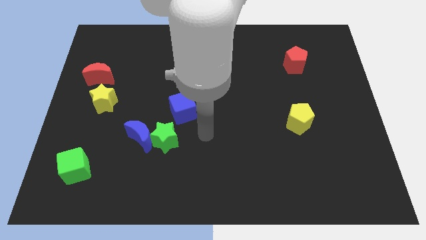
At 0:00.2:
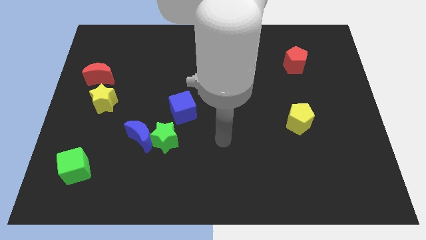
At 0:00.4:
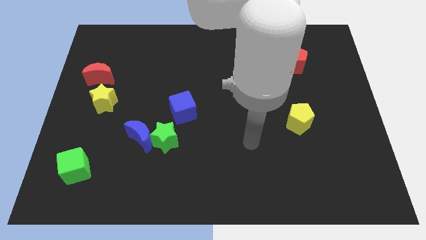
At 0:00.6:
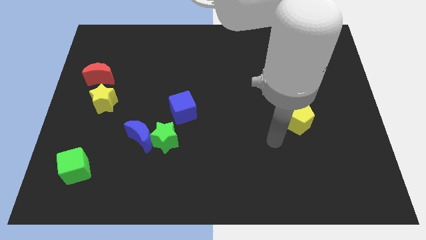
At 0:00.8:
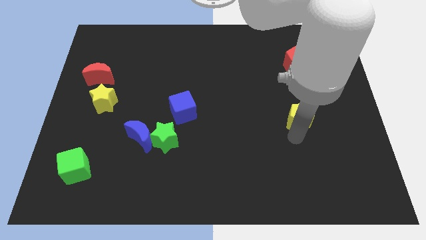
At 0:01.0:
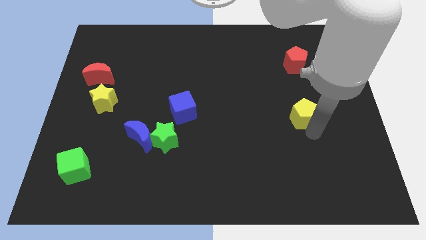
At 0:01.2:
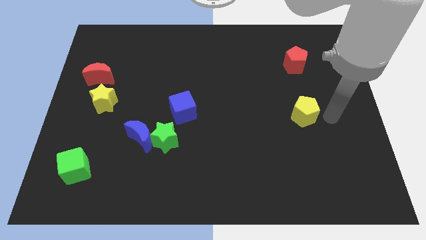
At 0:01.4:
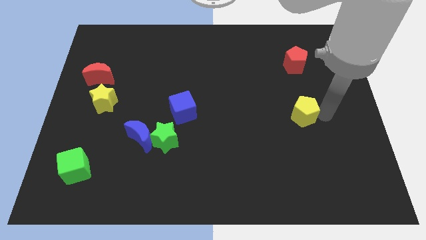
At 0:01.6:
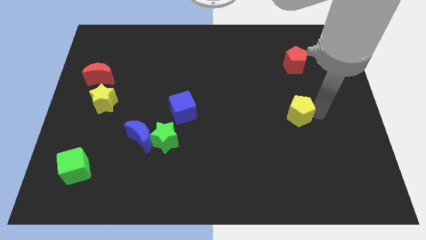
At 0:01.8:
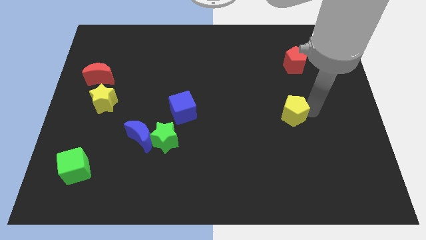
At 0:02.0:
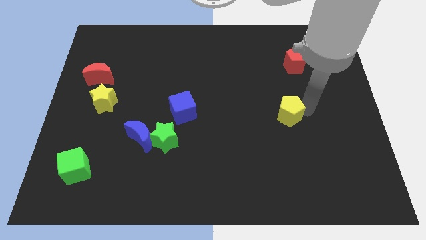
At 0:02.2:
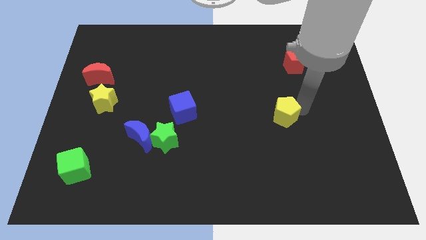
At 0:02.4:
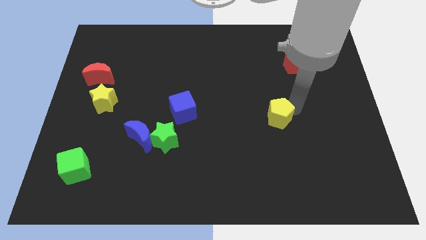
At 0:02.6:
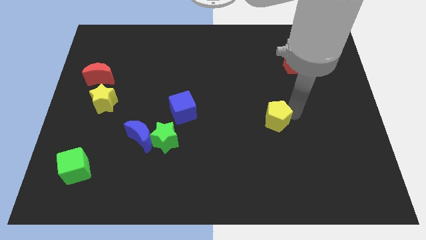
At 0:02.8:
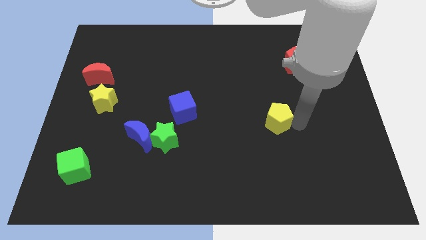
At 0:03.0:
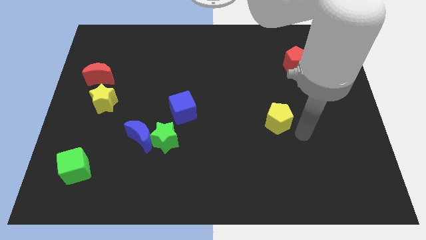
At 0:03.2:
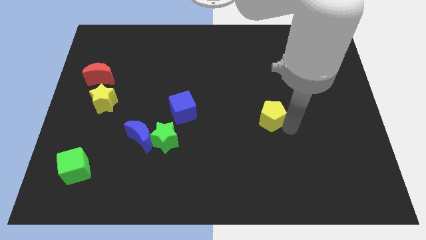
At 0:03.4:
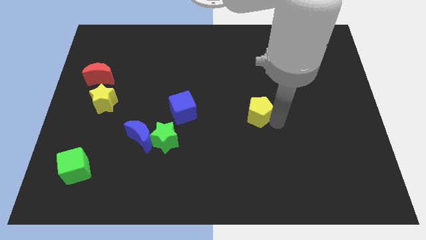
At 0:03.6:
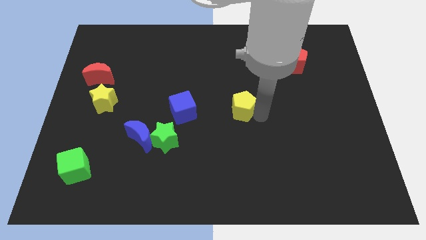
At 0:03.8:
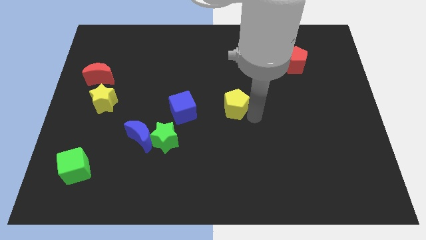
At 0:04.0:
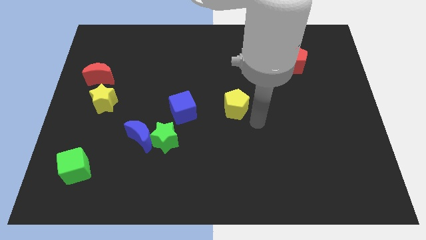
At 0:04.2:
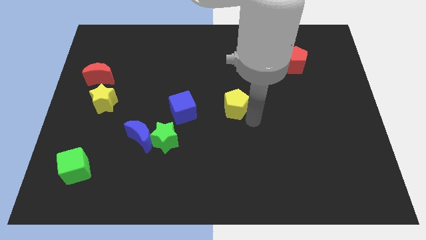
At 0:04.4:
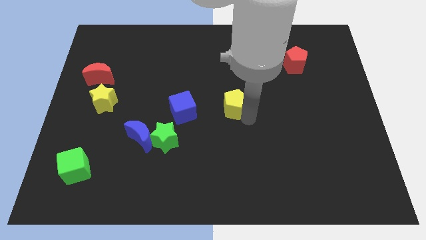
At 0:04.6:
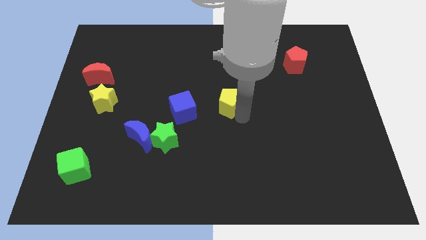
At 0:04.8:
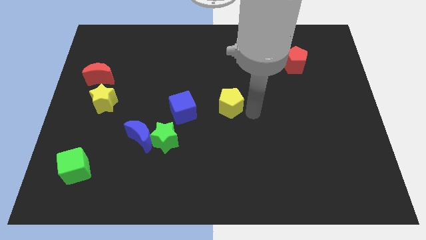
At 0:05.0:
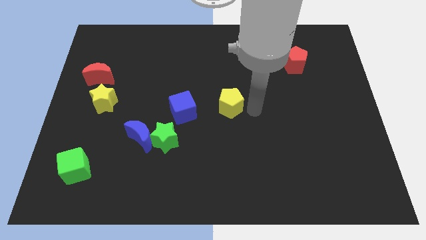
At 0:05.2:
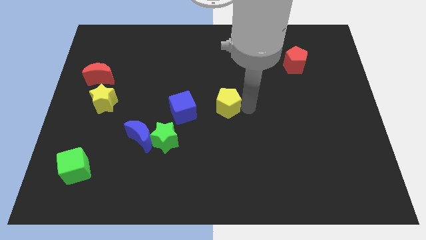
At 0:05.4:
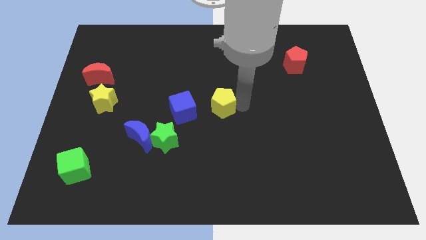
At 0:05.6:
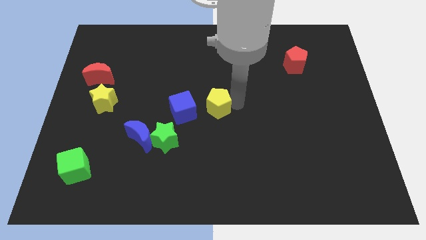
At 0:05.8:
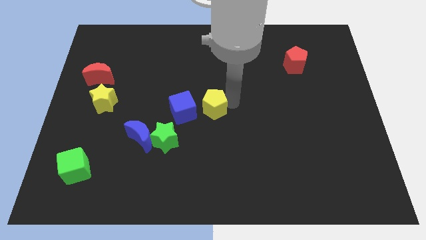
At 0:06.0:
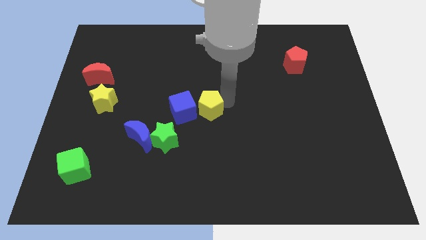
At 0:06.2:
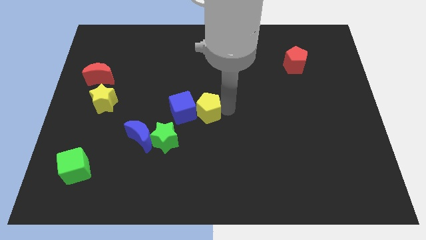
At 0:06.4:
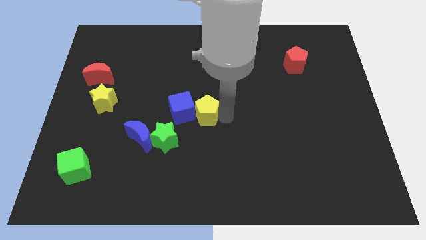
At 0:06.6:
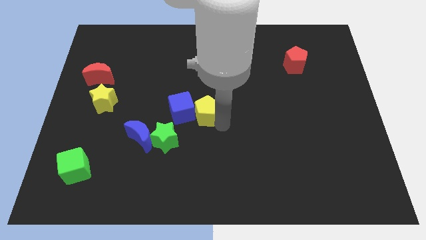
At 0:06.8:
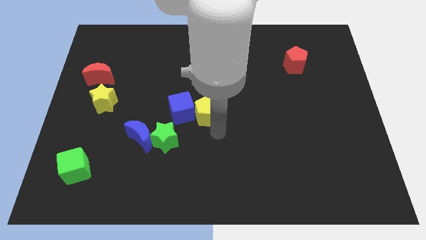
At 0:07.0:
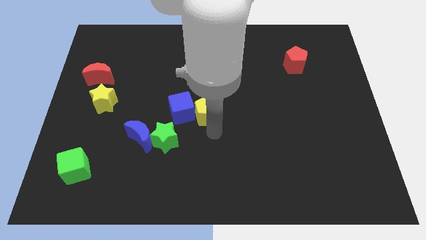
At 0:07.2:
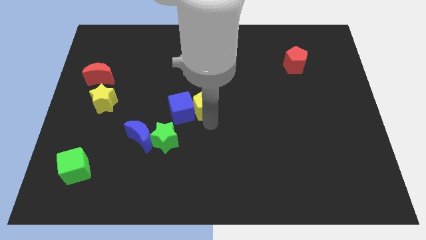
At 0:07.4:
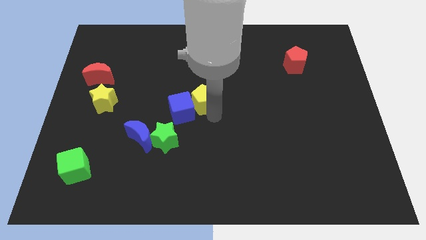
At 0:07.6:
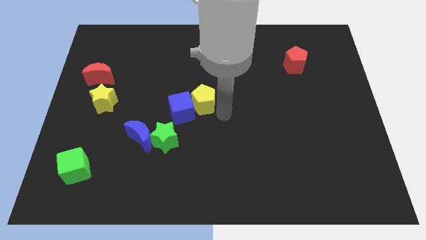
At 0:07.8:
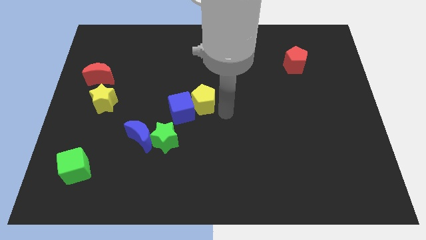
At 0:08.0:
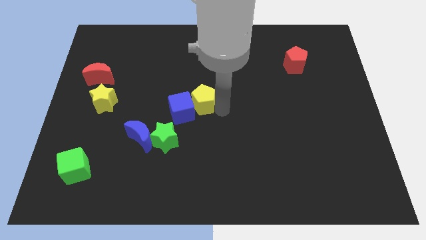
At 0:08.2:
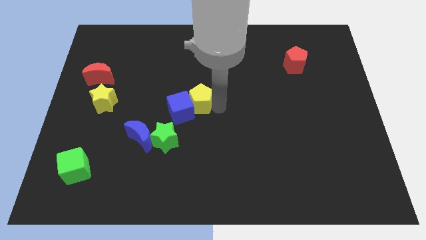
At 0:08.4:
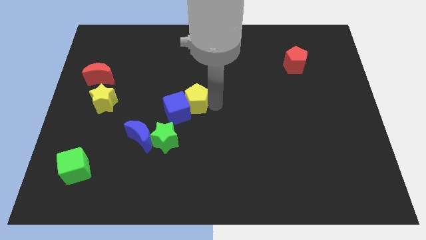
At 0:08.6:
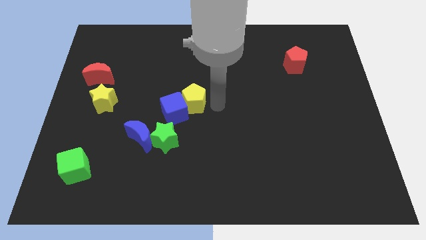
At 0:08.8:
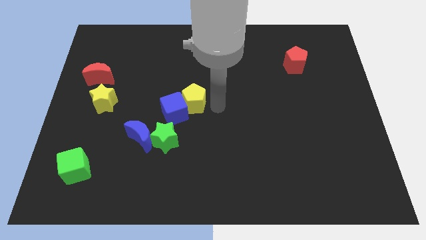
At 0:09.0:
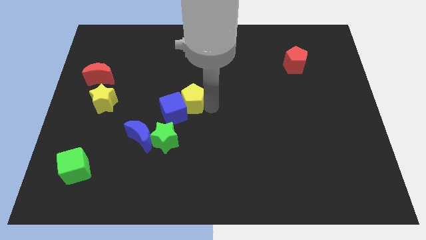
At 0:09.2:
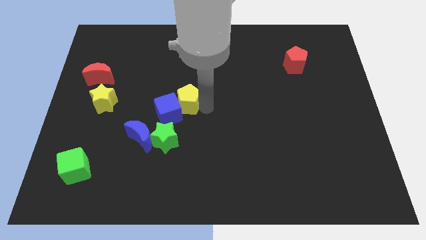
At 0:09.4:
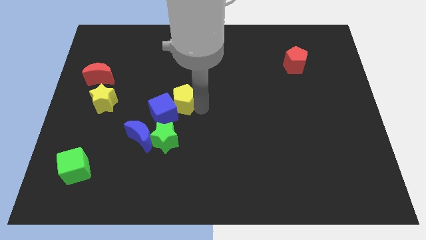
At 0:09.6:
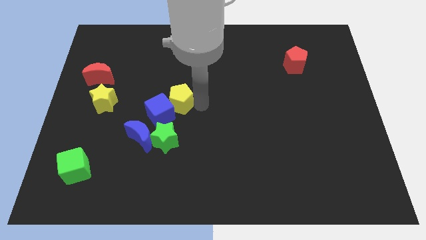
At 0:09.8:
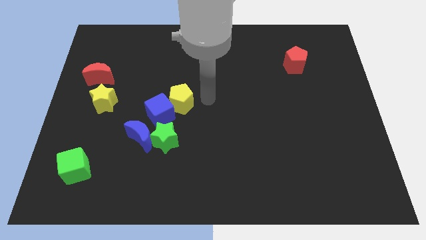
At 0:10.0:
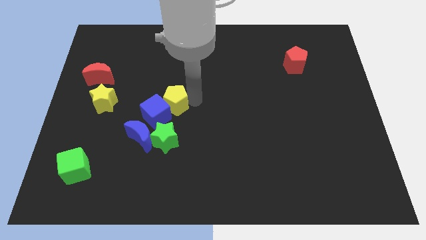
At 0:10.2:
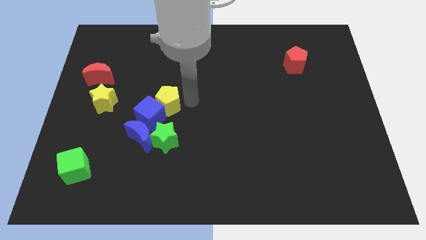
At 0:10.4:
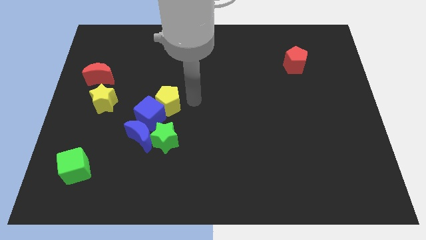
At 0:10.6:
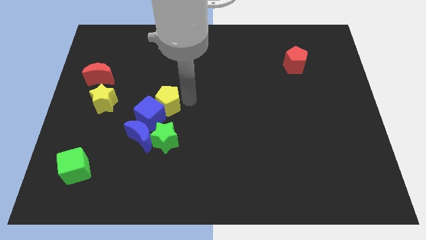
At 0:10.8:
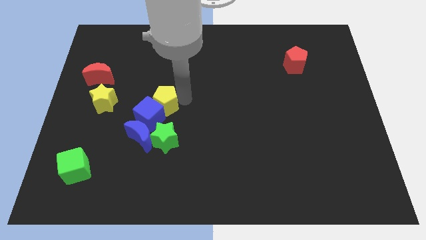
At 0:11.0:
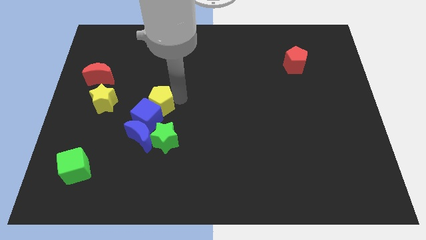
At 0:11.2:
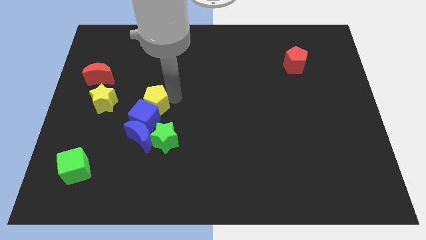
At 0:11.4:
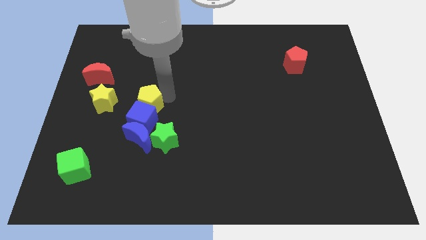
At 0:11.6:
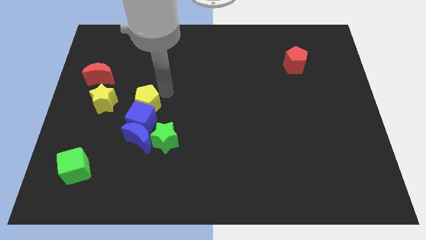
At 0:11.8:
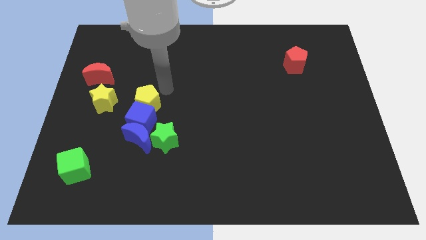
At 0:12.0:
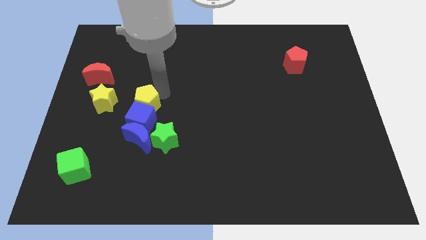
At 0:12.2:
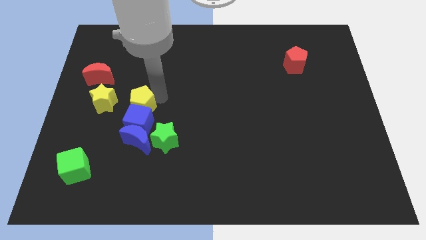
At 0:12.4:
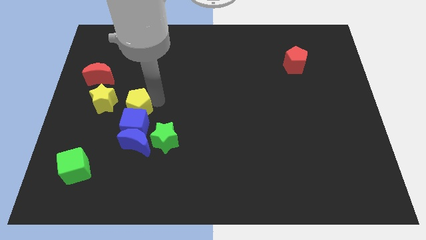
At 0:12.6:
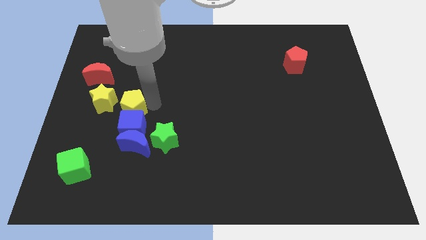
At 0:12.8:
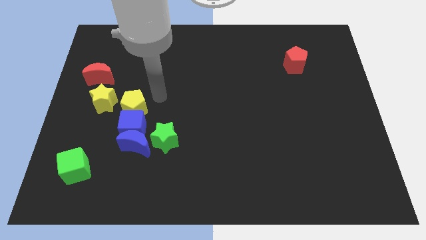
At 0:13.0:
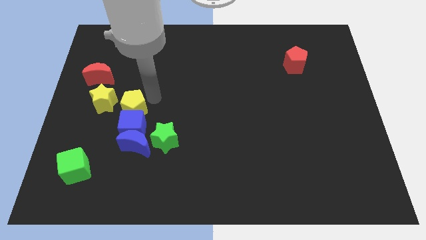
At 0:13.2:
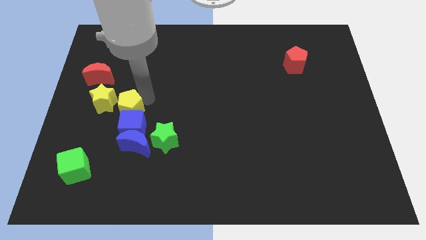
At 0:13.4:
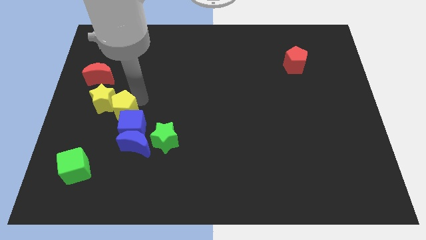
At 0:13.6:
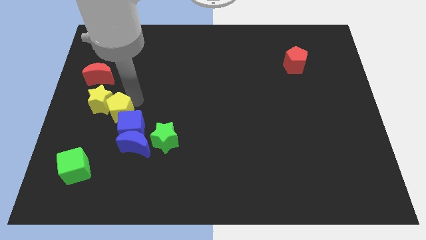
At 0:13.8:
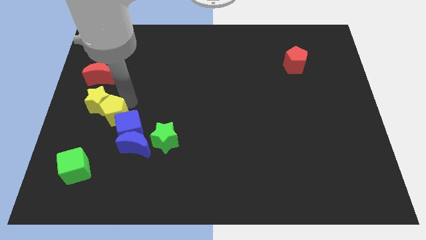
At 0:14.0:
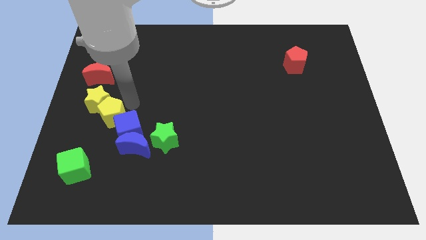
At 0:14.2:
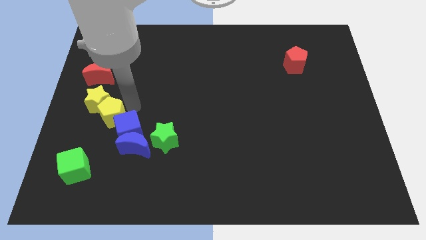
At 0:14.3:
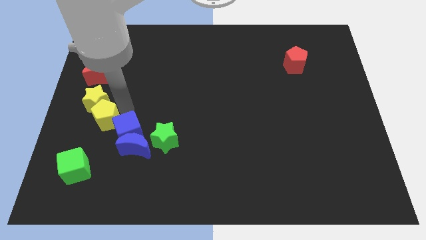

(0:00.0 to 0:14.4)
put the yellow pentagon to the top of the green cube
